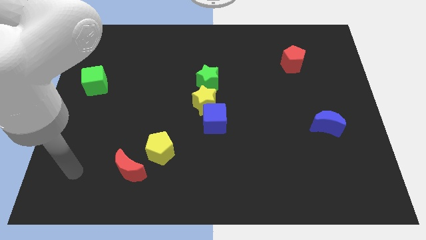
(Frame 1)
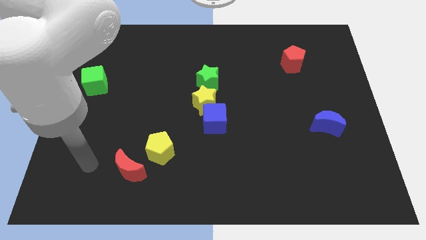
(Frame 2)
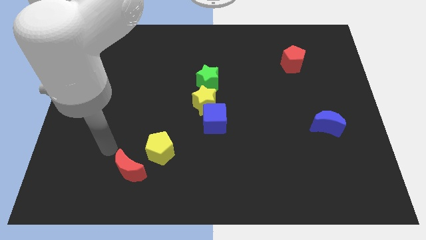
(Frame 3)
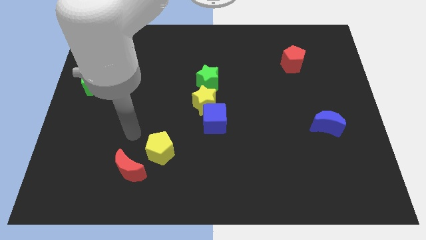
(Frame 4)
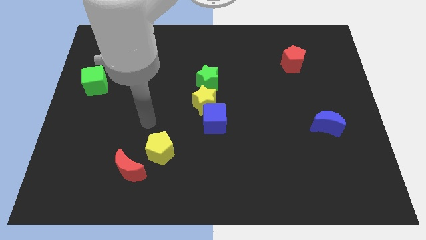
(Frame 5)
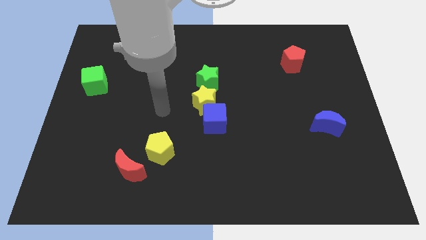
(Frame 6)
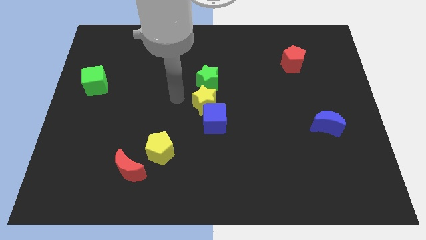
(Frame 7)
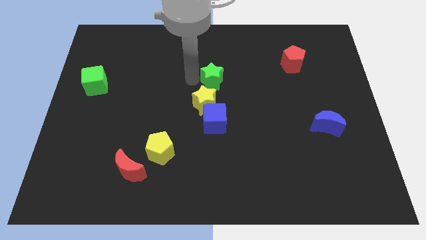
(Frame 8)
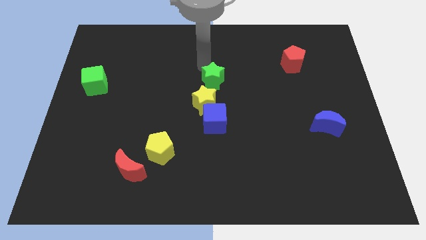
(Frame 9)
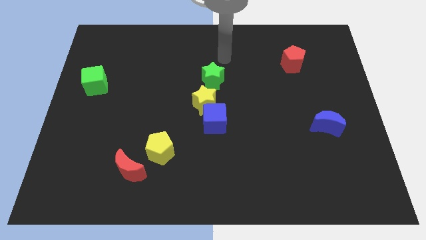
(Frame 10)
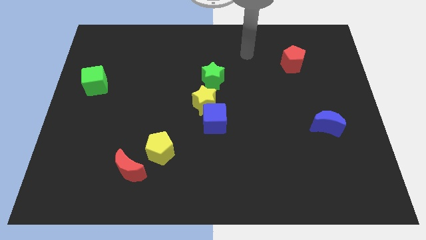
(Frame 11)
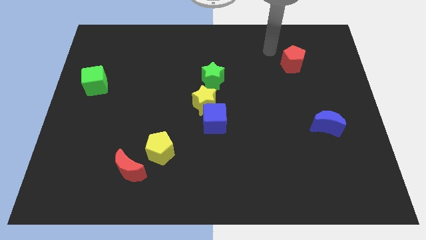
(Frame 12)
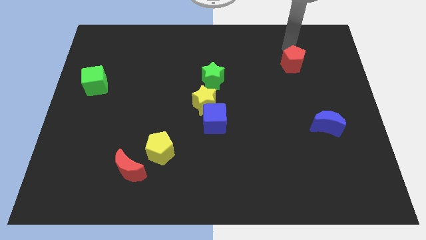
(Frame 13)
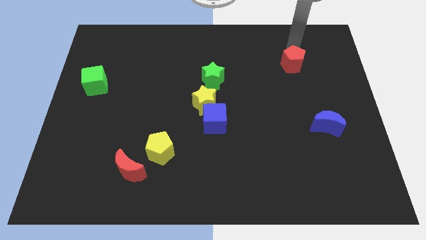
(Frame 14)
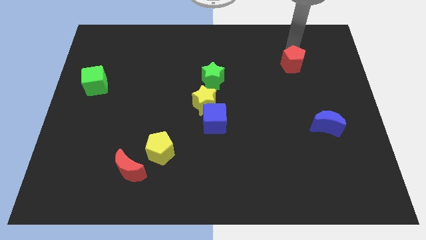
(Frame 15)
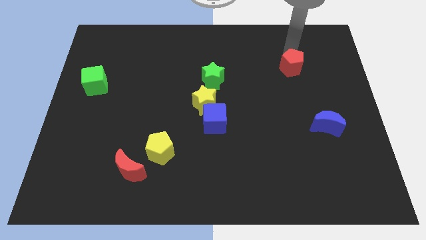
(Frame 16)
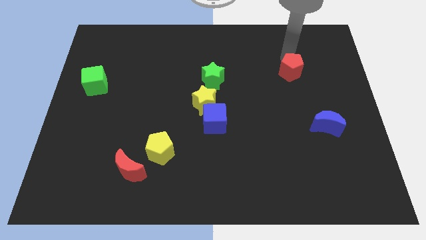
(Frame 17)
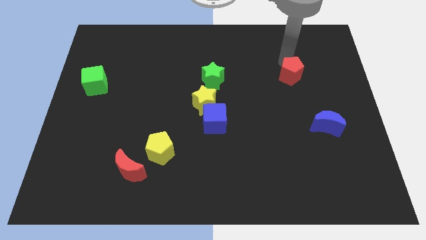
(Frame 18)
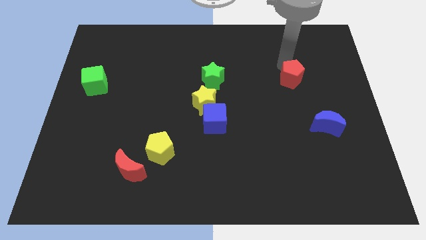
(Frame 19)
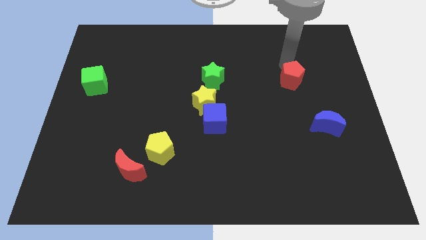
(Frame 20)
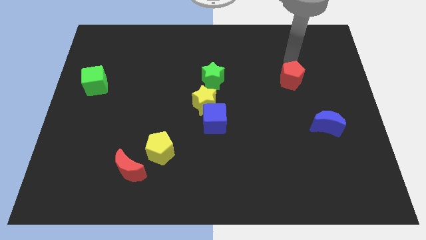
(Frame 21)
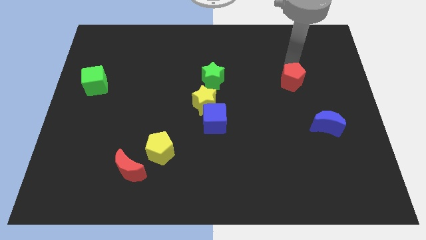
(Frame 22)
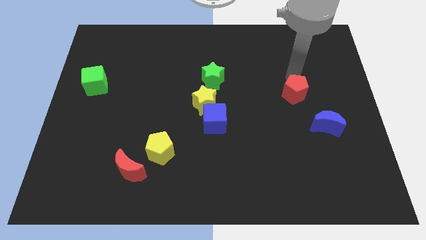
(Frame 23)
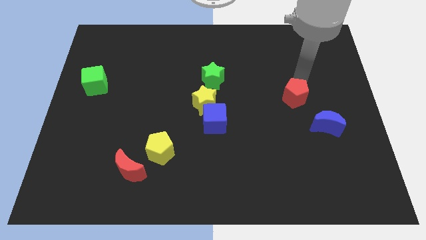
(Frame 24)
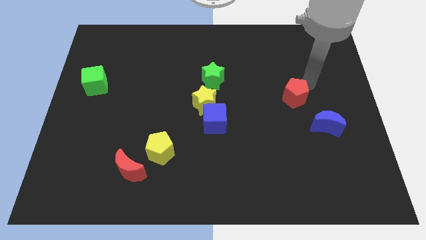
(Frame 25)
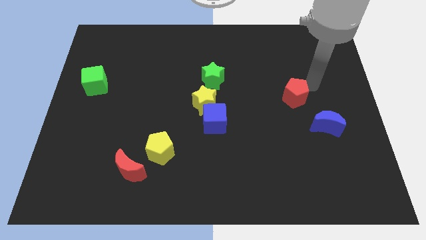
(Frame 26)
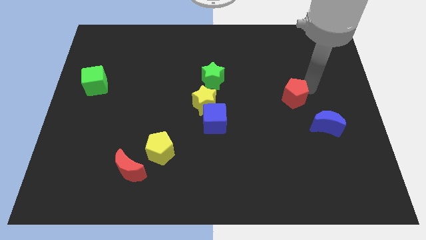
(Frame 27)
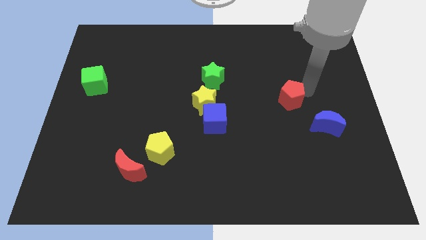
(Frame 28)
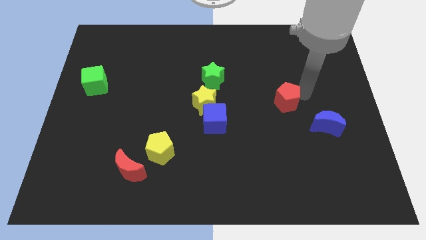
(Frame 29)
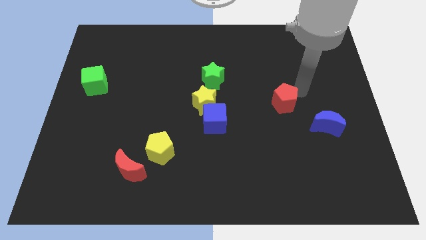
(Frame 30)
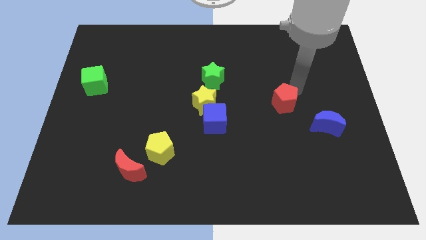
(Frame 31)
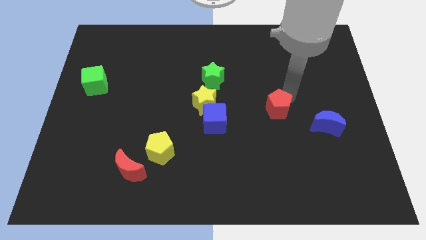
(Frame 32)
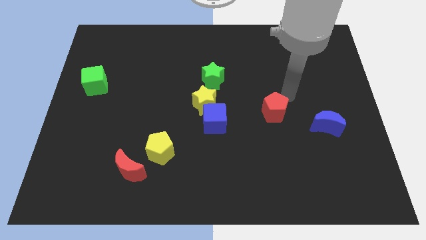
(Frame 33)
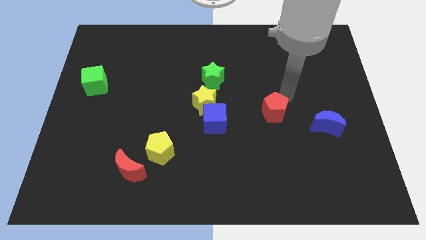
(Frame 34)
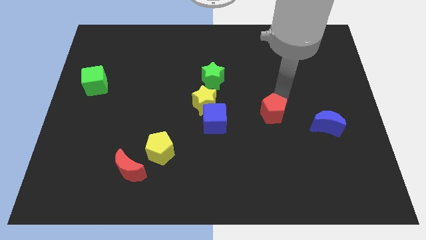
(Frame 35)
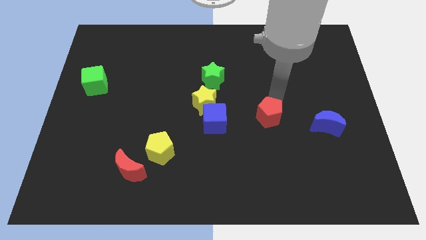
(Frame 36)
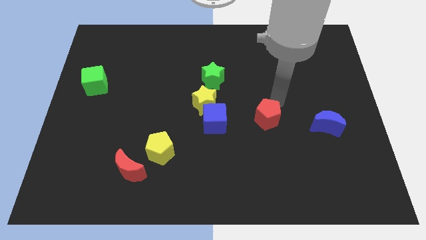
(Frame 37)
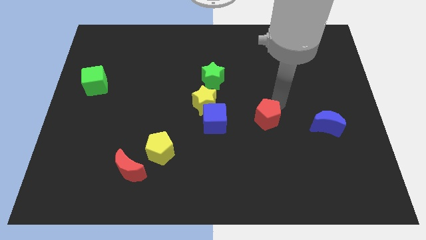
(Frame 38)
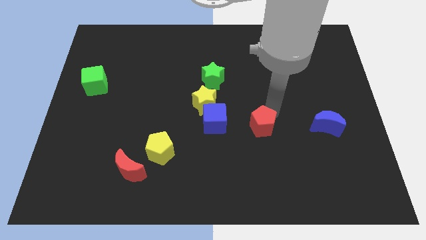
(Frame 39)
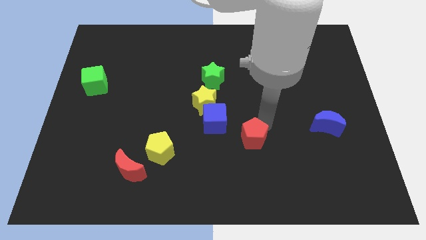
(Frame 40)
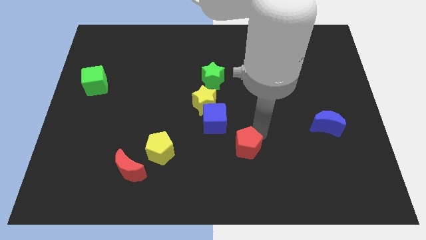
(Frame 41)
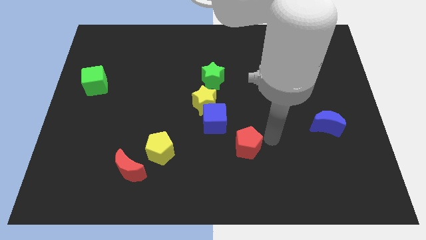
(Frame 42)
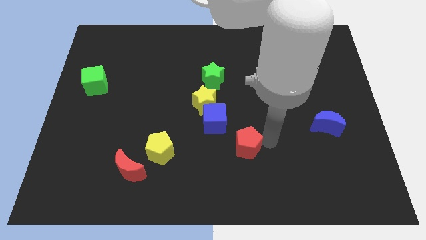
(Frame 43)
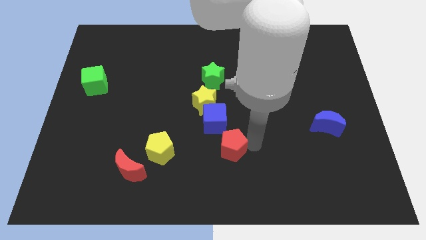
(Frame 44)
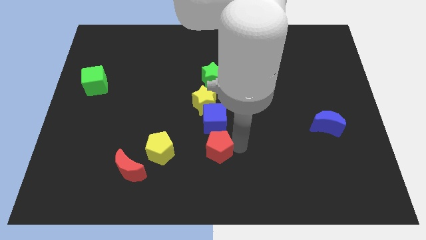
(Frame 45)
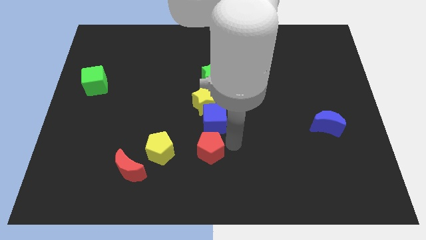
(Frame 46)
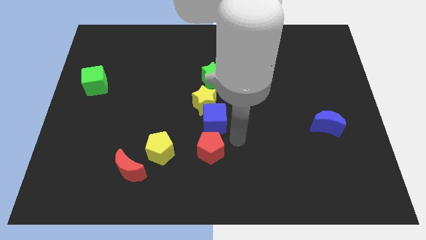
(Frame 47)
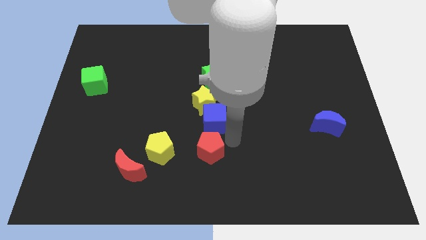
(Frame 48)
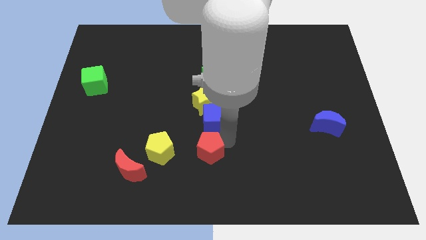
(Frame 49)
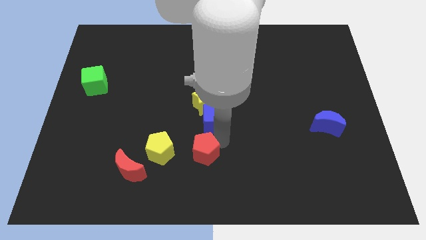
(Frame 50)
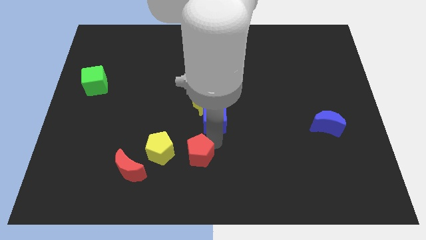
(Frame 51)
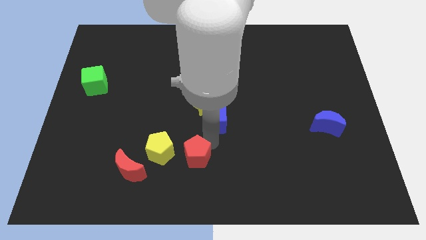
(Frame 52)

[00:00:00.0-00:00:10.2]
push the red pentagon to the right of the red moon

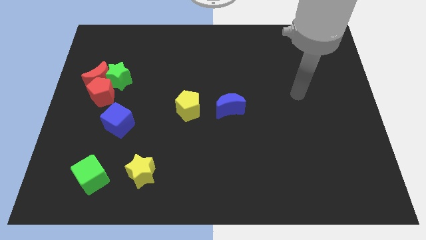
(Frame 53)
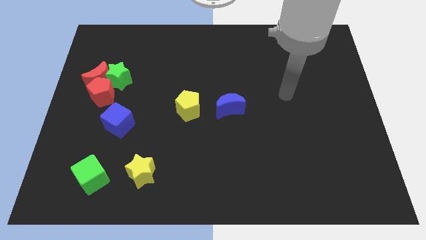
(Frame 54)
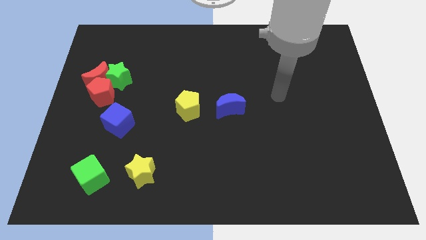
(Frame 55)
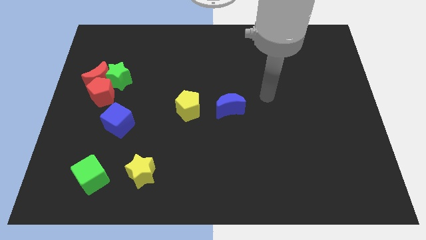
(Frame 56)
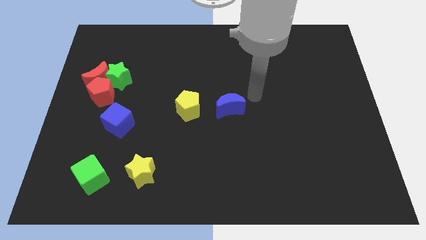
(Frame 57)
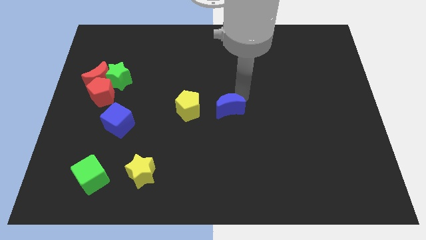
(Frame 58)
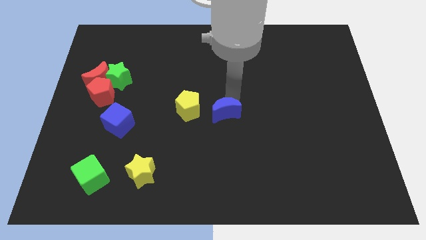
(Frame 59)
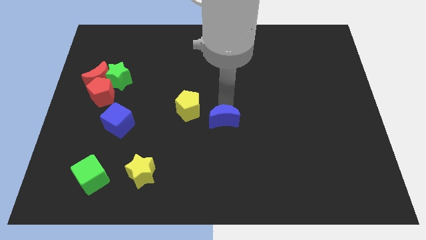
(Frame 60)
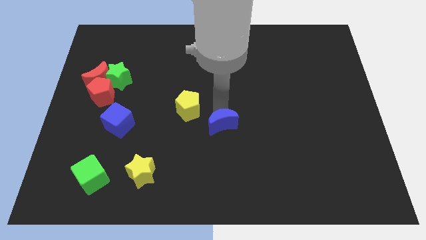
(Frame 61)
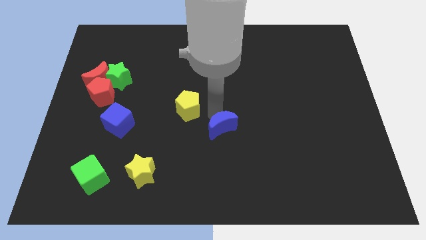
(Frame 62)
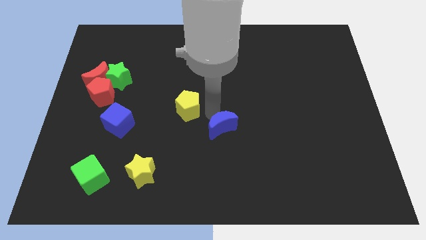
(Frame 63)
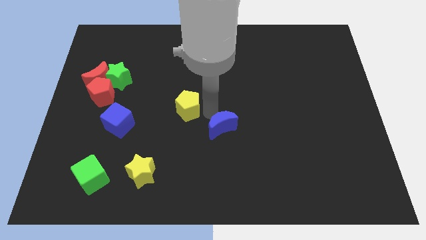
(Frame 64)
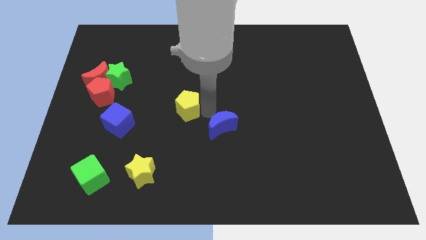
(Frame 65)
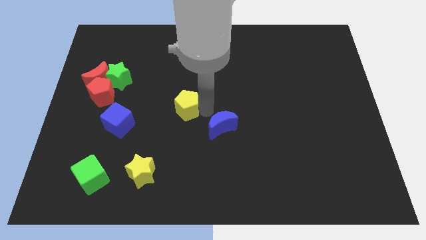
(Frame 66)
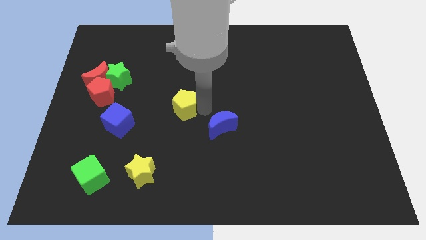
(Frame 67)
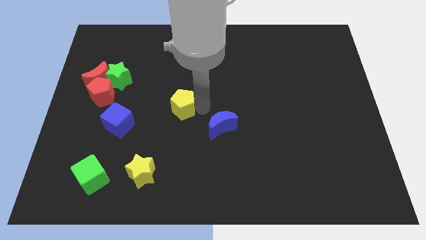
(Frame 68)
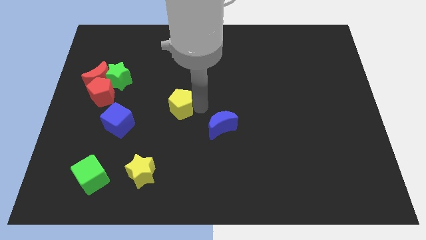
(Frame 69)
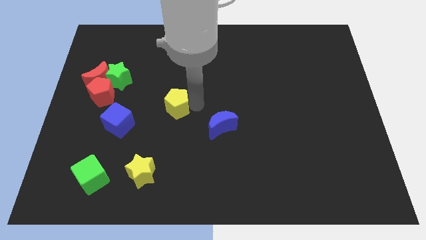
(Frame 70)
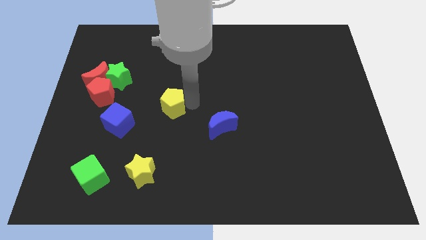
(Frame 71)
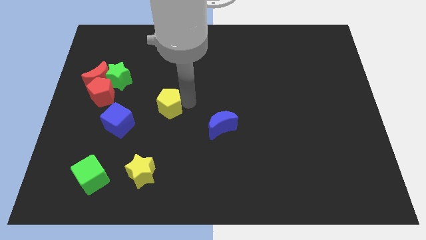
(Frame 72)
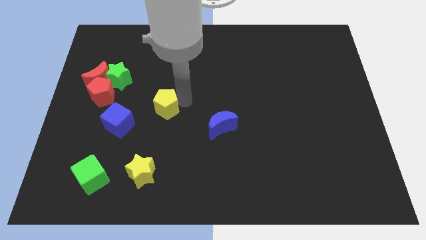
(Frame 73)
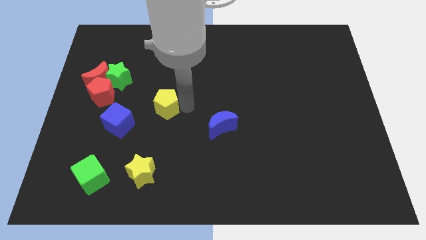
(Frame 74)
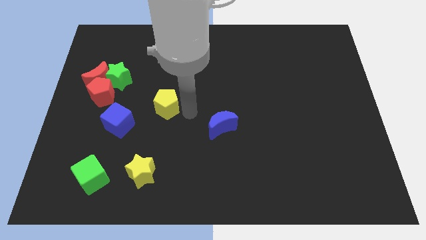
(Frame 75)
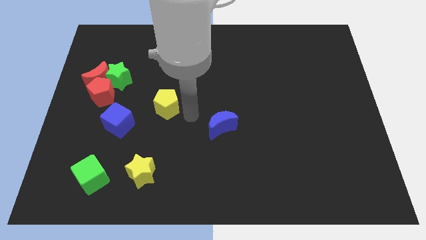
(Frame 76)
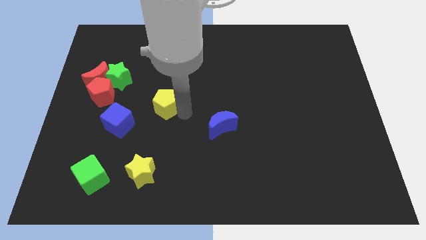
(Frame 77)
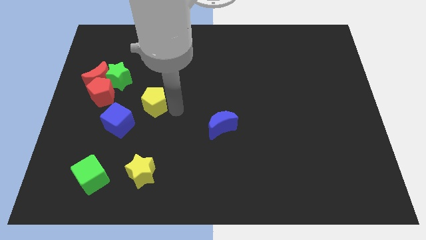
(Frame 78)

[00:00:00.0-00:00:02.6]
move the yellow pentagon diagonally down and to the right of the green star
